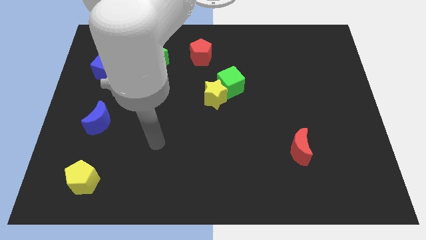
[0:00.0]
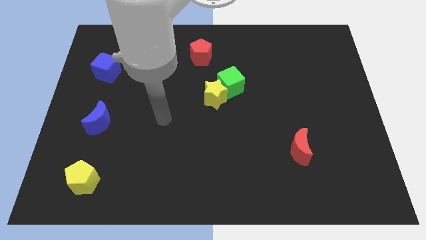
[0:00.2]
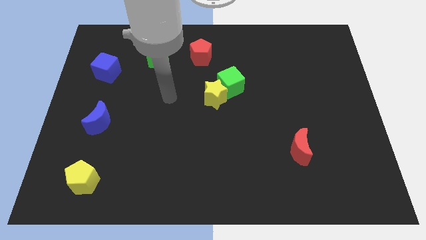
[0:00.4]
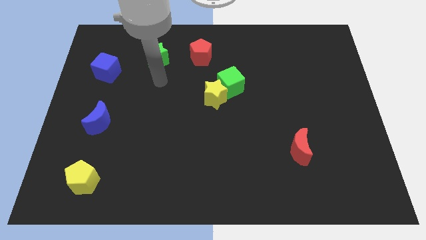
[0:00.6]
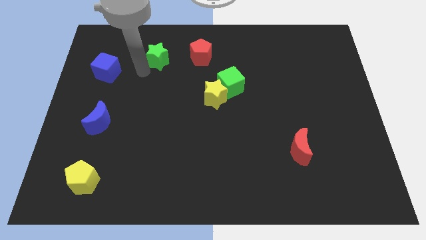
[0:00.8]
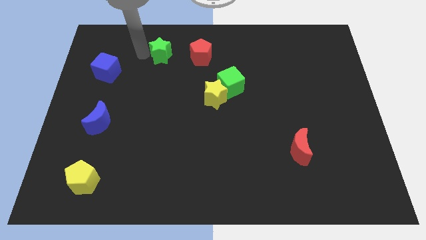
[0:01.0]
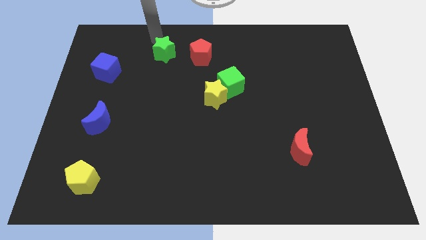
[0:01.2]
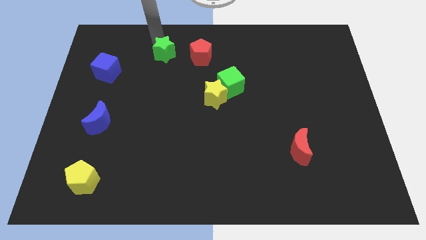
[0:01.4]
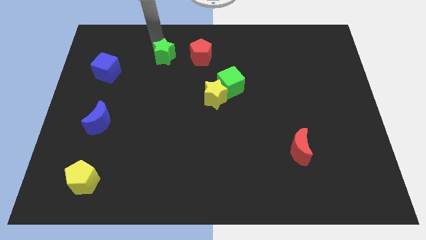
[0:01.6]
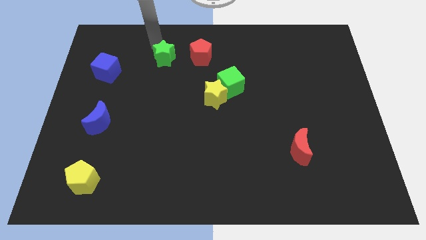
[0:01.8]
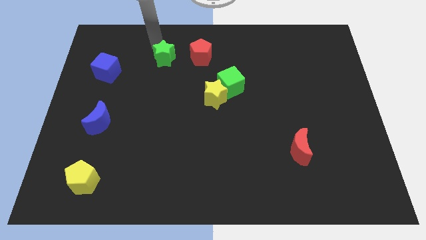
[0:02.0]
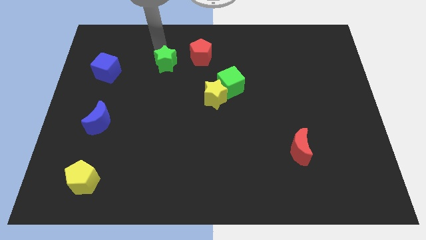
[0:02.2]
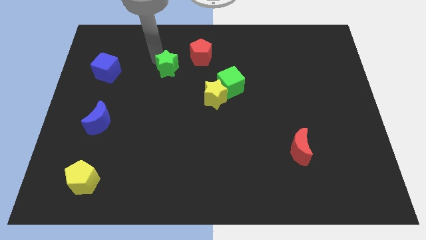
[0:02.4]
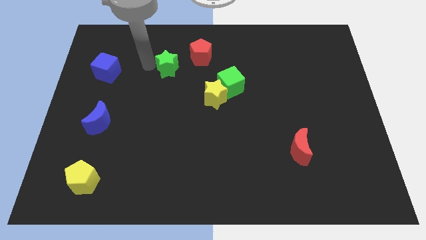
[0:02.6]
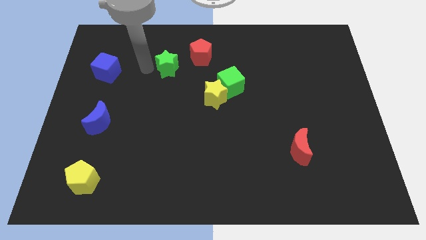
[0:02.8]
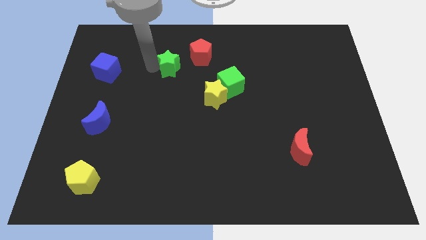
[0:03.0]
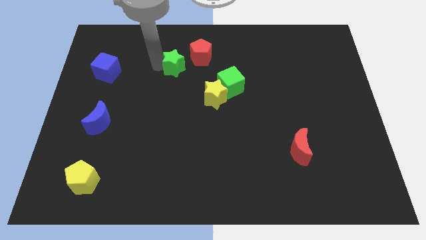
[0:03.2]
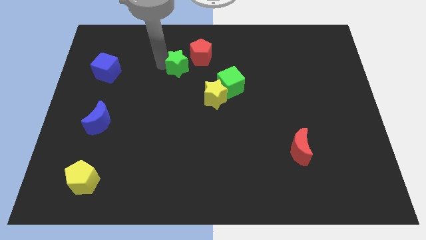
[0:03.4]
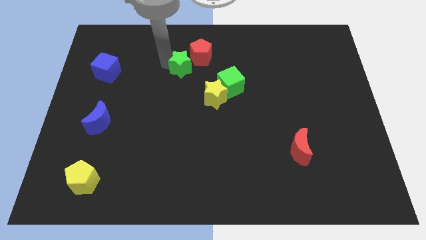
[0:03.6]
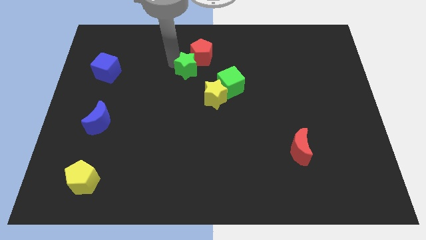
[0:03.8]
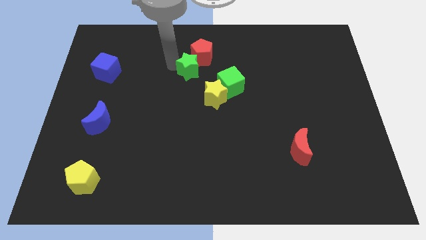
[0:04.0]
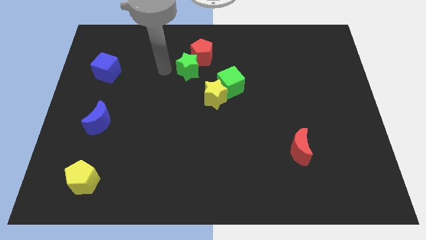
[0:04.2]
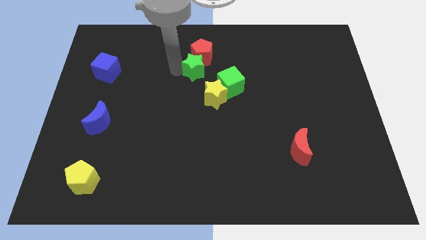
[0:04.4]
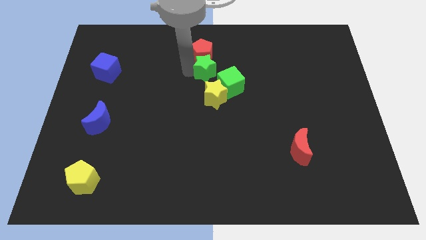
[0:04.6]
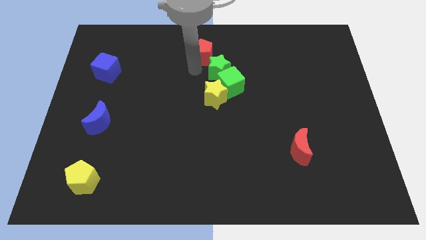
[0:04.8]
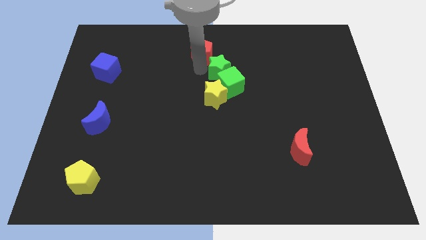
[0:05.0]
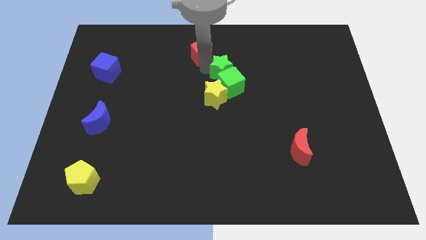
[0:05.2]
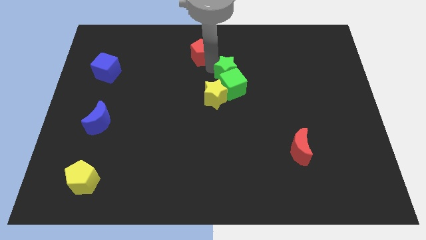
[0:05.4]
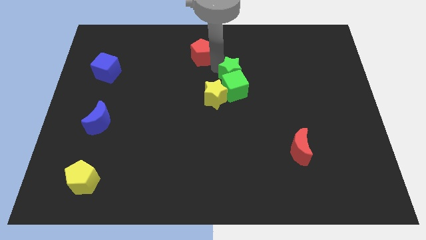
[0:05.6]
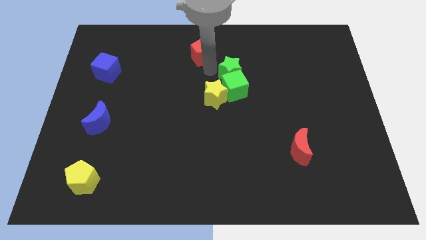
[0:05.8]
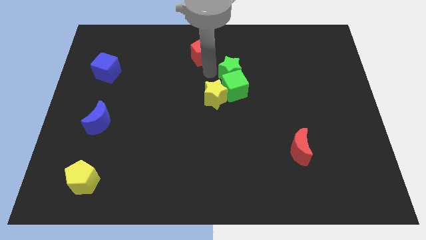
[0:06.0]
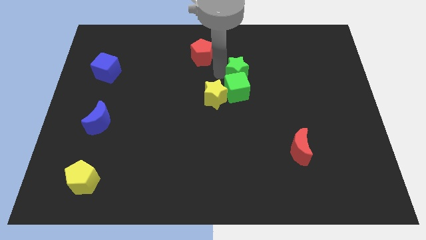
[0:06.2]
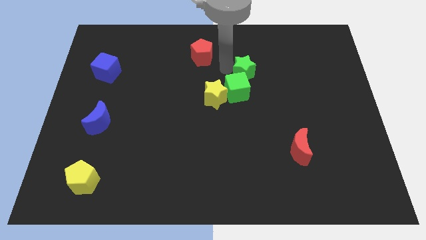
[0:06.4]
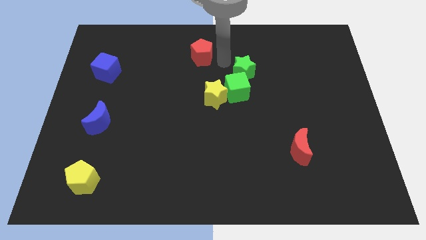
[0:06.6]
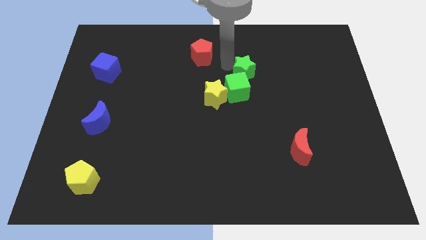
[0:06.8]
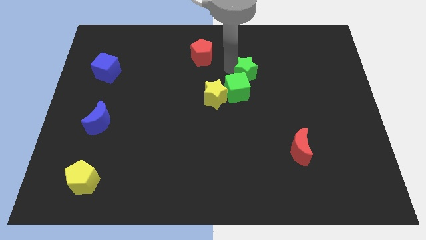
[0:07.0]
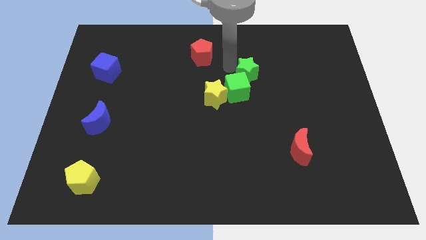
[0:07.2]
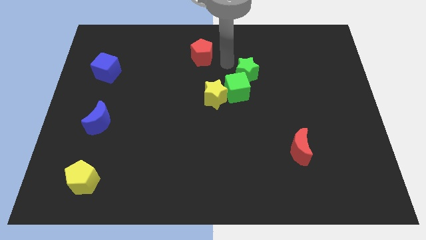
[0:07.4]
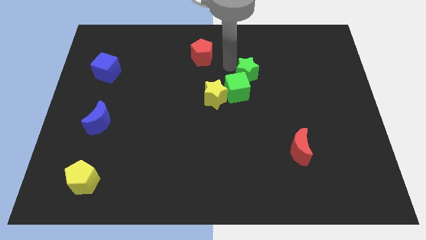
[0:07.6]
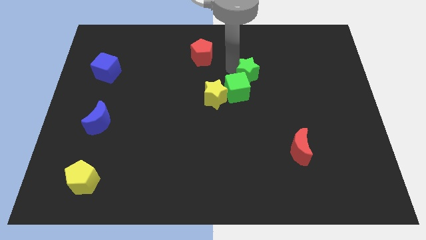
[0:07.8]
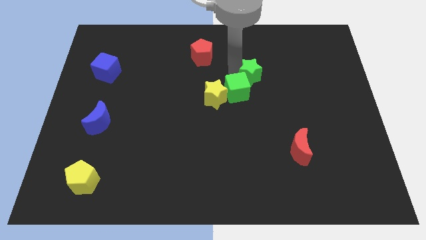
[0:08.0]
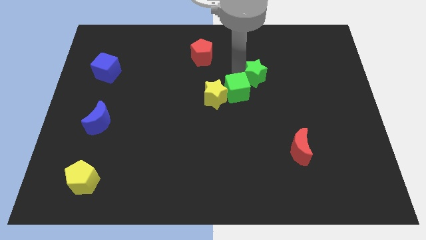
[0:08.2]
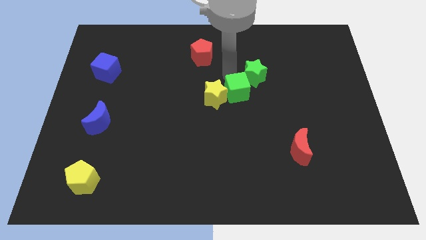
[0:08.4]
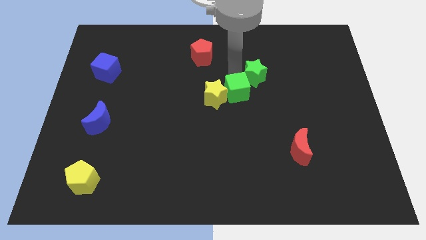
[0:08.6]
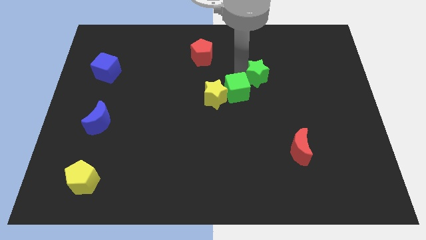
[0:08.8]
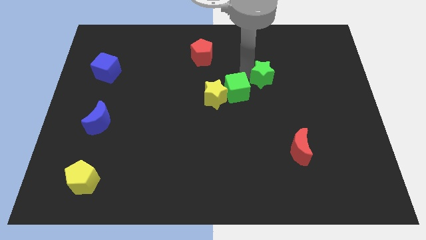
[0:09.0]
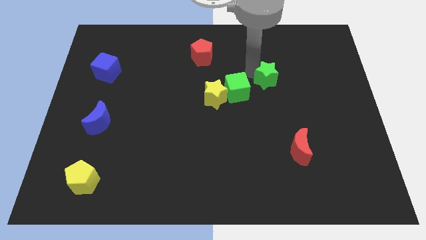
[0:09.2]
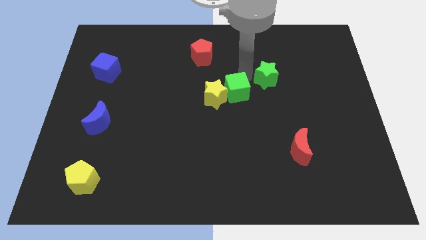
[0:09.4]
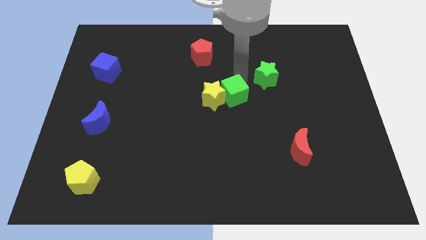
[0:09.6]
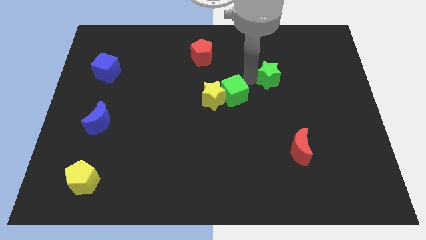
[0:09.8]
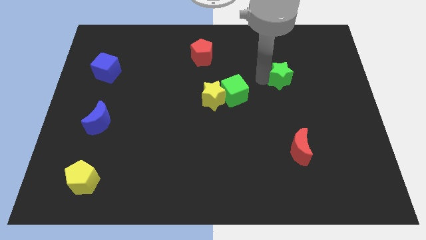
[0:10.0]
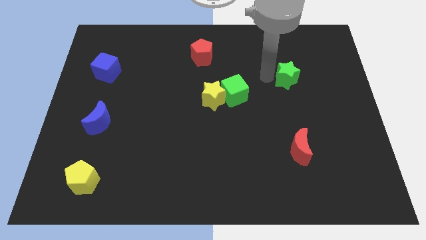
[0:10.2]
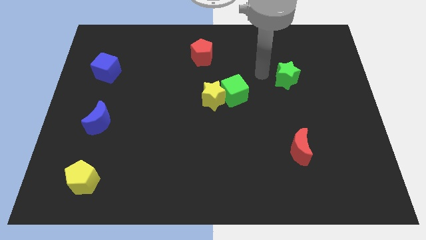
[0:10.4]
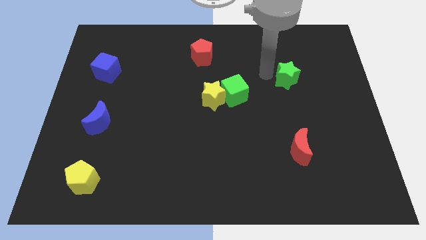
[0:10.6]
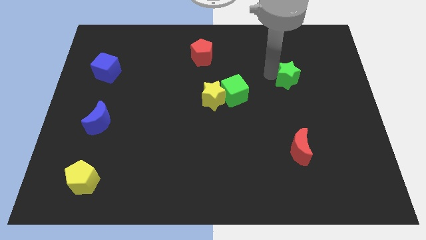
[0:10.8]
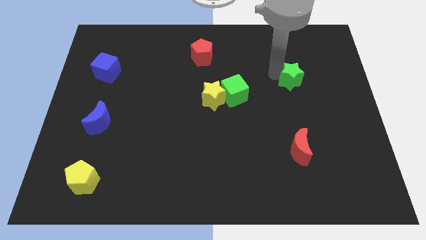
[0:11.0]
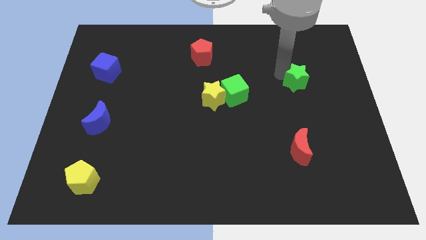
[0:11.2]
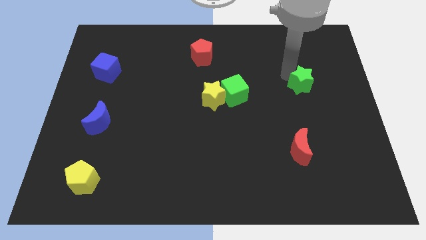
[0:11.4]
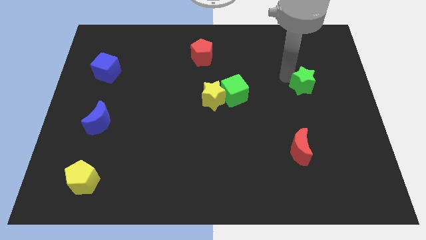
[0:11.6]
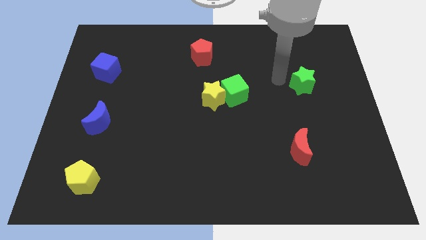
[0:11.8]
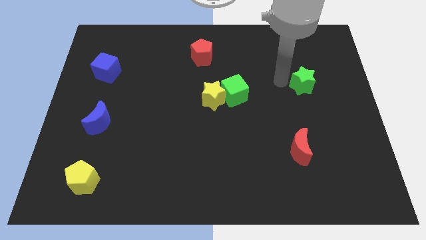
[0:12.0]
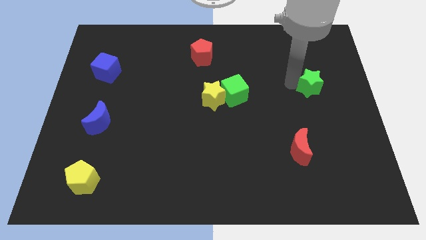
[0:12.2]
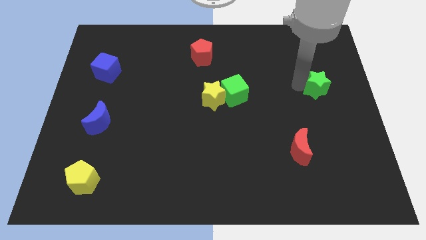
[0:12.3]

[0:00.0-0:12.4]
slide the green star to the right side
